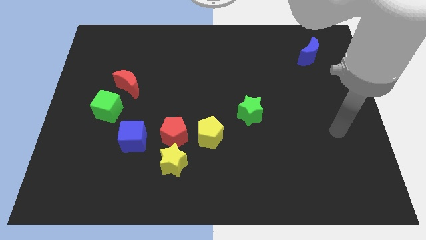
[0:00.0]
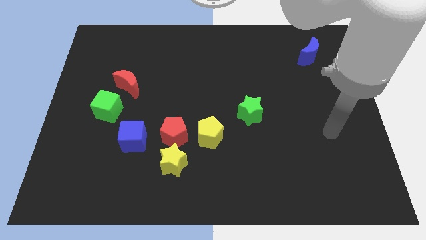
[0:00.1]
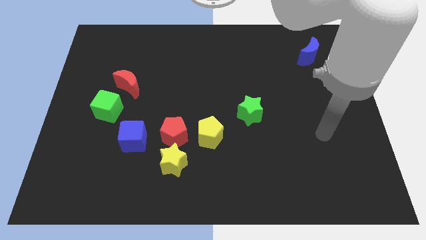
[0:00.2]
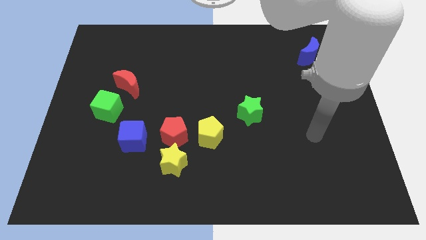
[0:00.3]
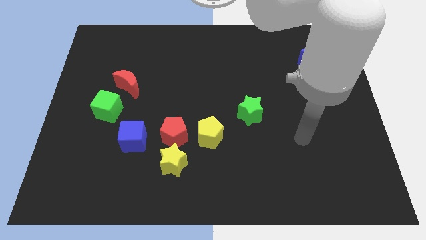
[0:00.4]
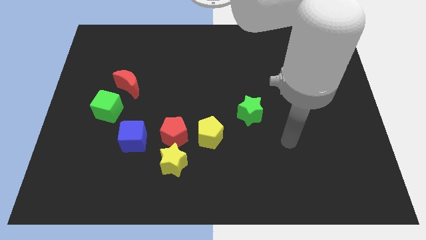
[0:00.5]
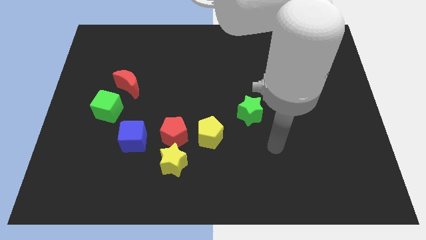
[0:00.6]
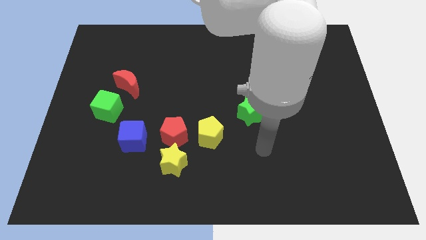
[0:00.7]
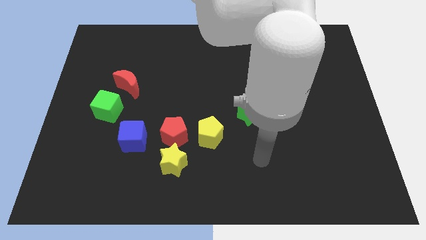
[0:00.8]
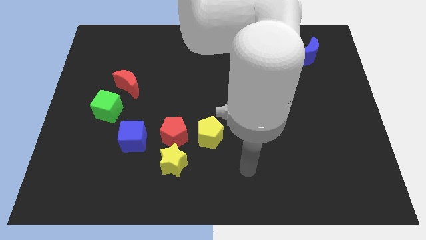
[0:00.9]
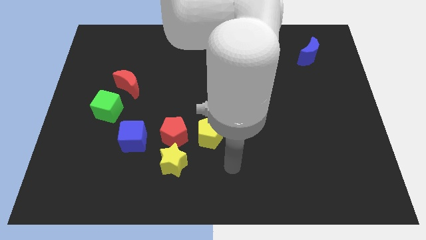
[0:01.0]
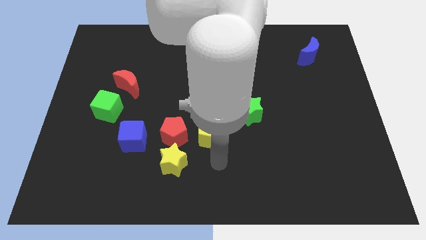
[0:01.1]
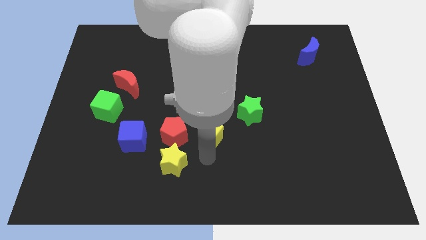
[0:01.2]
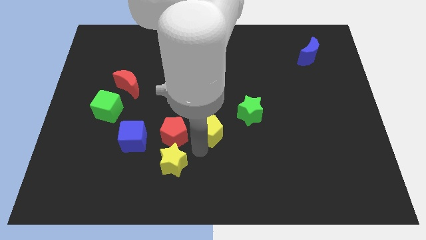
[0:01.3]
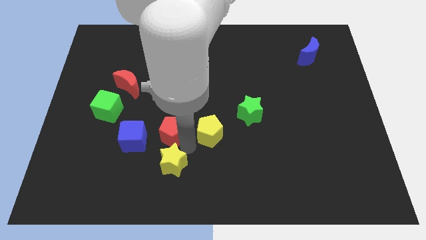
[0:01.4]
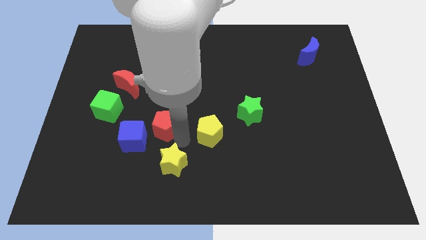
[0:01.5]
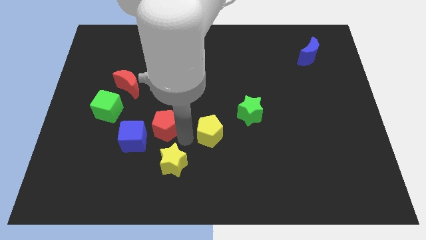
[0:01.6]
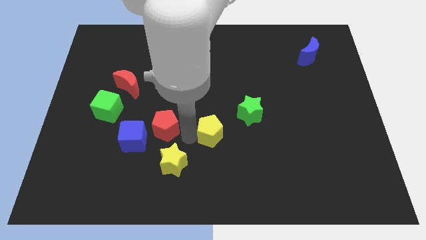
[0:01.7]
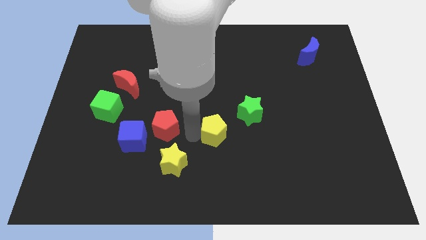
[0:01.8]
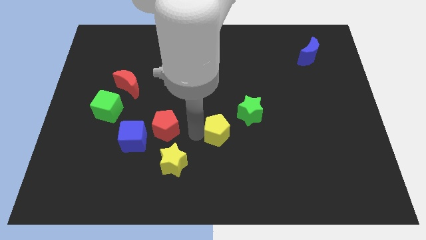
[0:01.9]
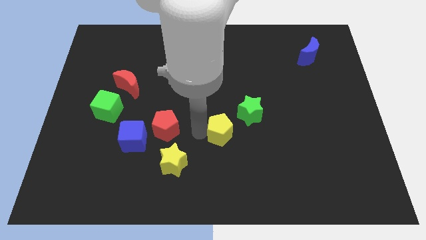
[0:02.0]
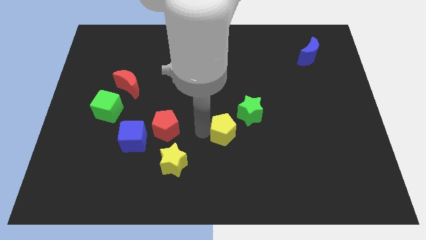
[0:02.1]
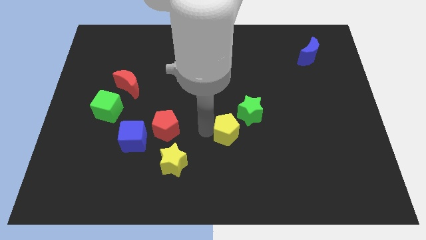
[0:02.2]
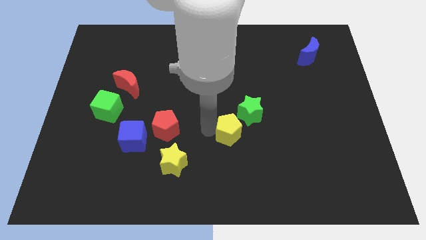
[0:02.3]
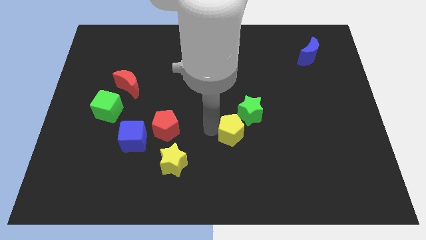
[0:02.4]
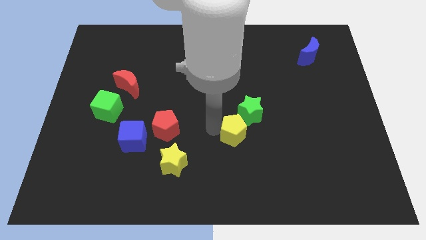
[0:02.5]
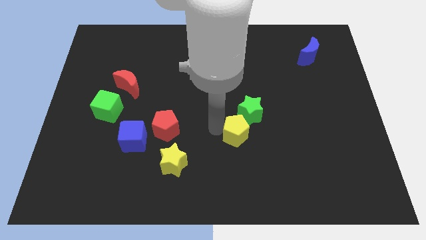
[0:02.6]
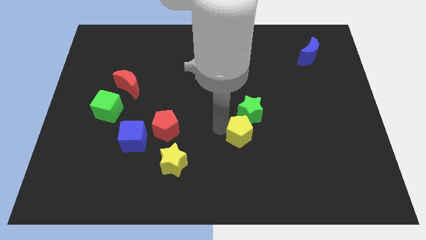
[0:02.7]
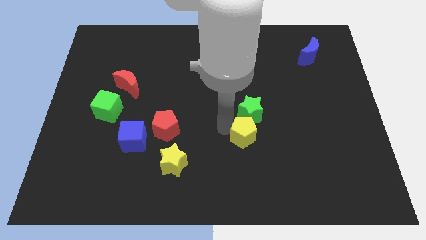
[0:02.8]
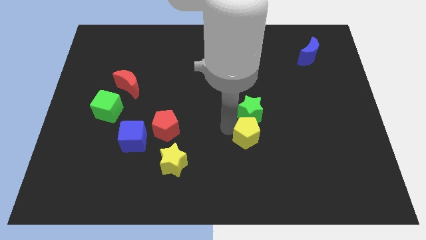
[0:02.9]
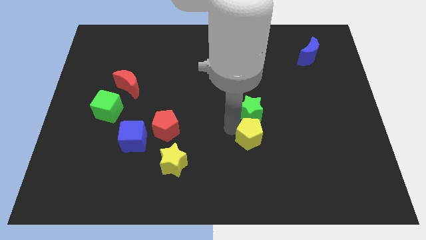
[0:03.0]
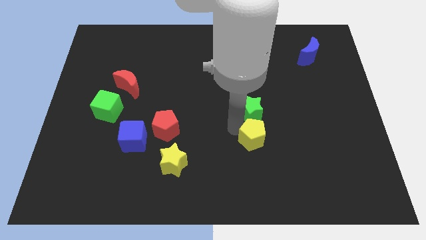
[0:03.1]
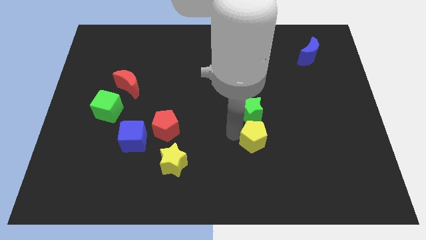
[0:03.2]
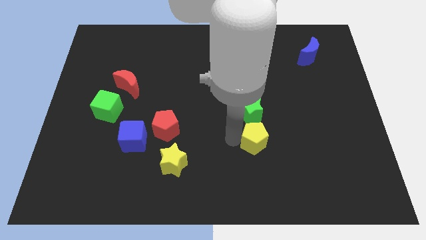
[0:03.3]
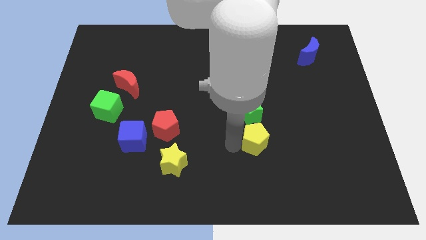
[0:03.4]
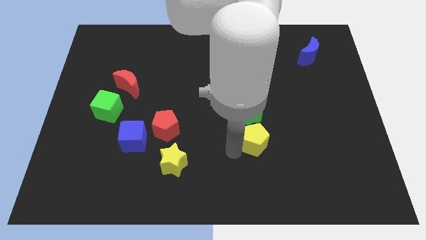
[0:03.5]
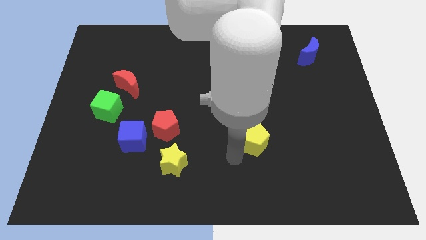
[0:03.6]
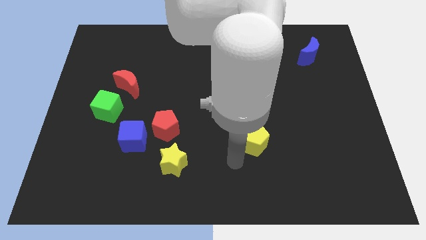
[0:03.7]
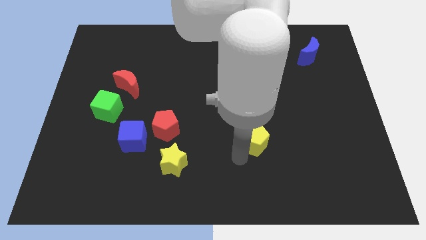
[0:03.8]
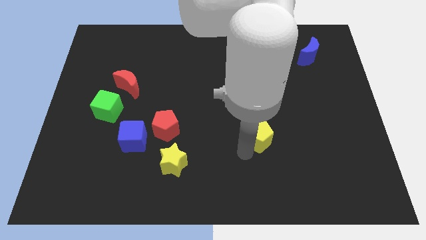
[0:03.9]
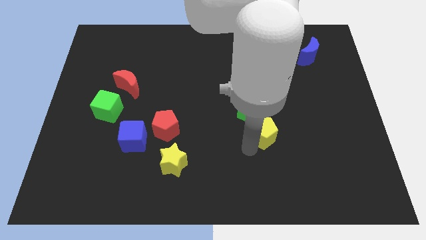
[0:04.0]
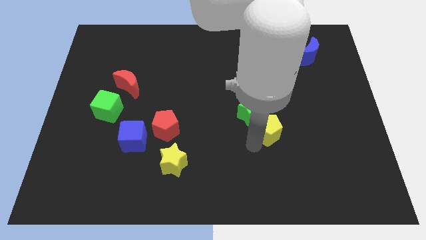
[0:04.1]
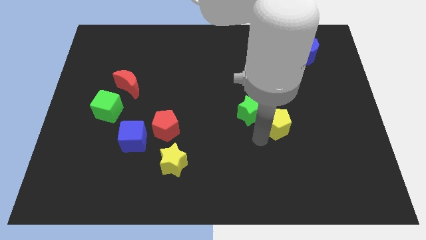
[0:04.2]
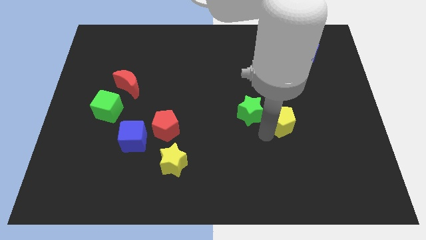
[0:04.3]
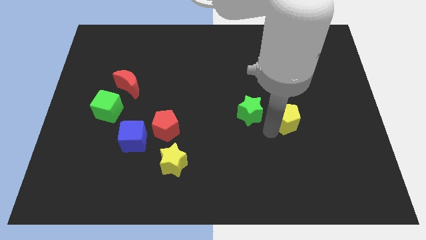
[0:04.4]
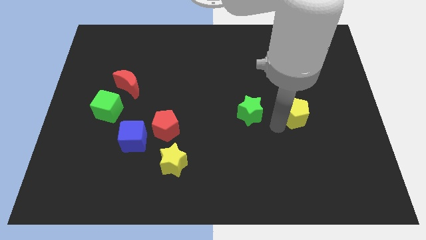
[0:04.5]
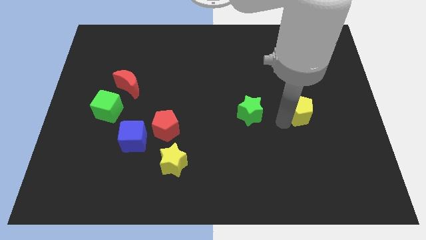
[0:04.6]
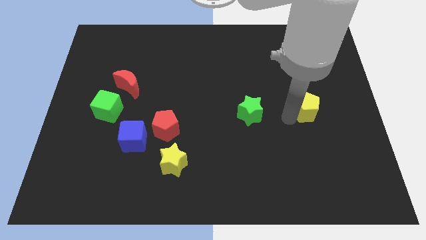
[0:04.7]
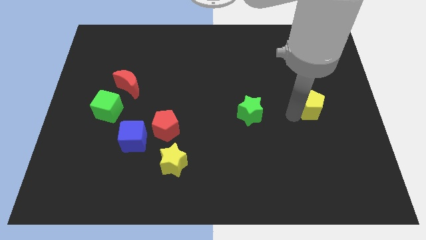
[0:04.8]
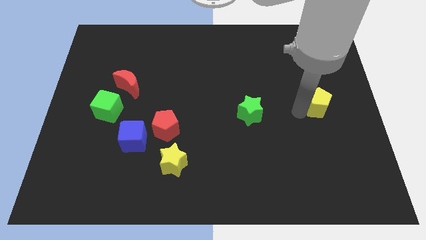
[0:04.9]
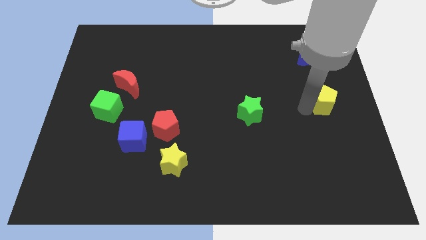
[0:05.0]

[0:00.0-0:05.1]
push the yellow pentagon to the right side of the board

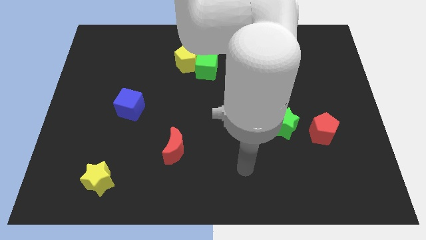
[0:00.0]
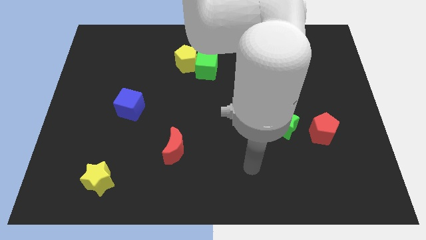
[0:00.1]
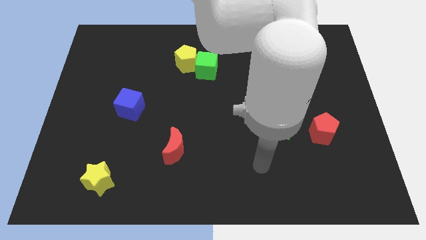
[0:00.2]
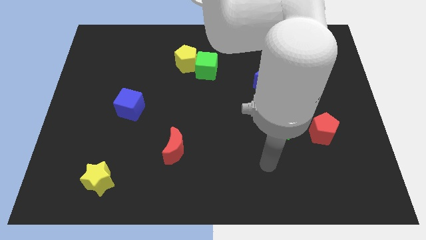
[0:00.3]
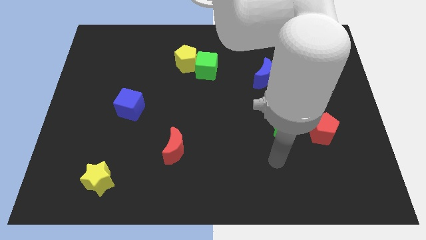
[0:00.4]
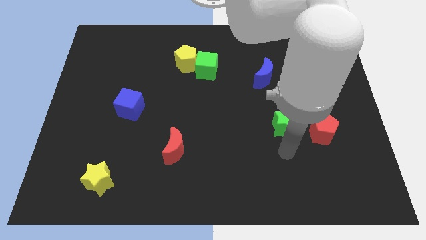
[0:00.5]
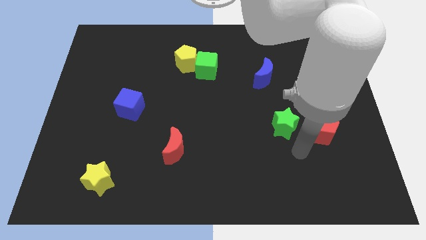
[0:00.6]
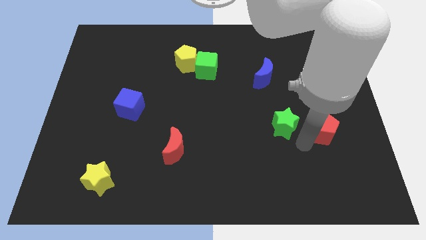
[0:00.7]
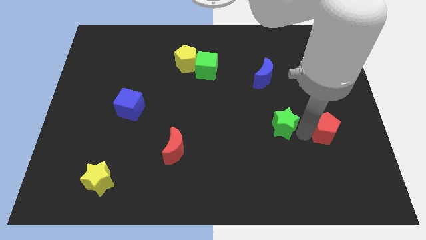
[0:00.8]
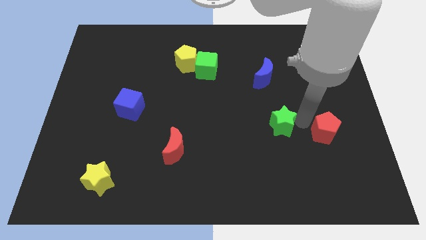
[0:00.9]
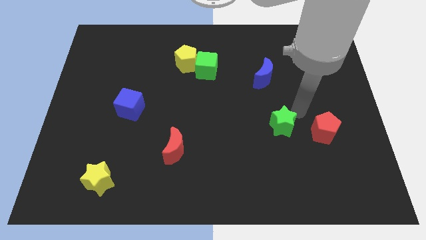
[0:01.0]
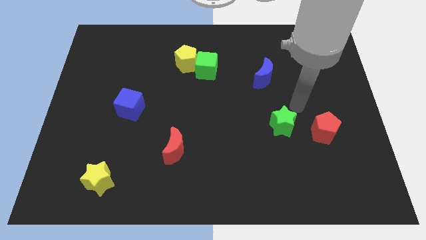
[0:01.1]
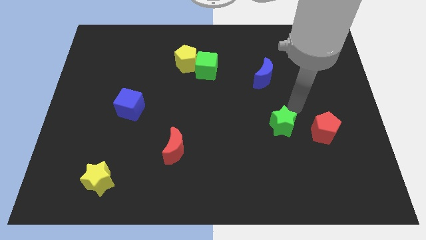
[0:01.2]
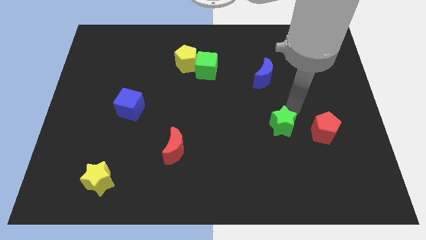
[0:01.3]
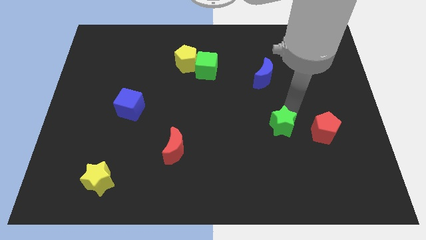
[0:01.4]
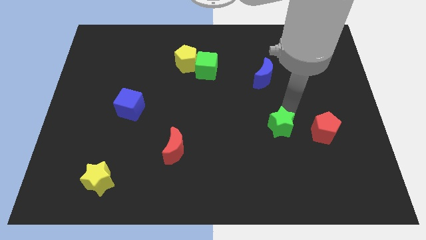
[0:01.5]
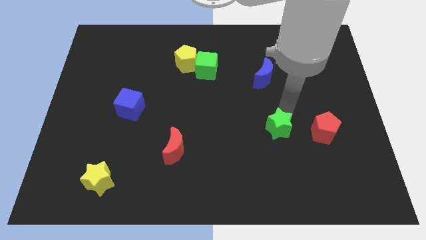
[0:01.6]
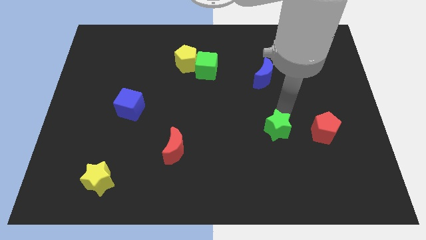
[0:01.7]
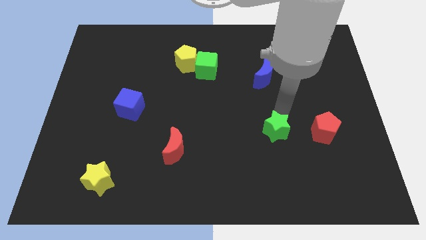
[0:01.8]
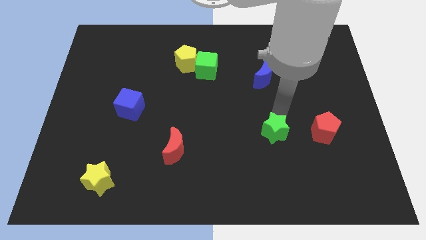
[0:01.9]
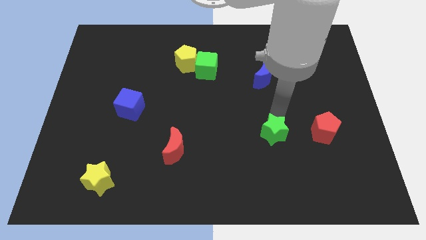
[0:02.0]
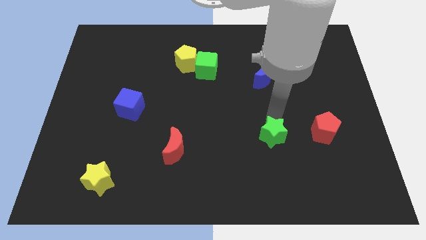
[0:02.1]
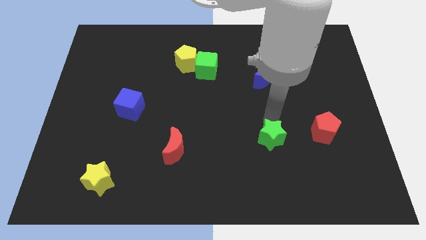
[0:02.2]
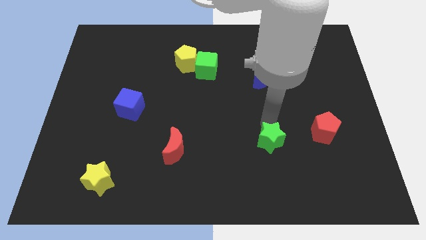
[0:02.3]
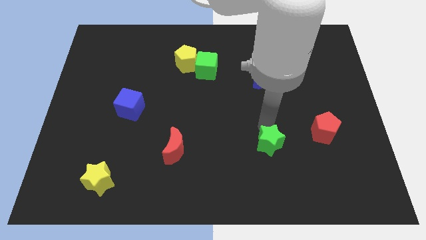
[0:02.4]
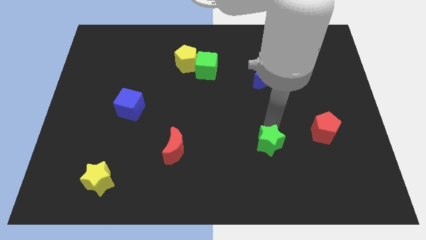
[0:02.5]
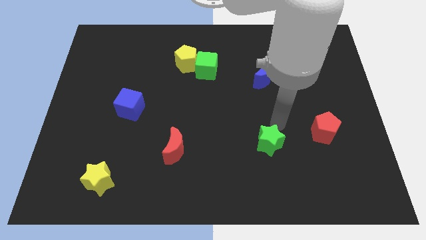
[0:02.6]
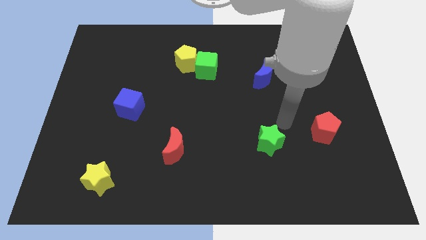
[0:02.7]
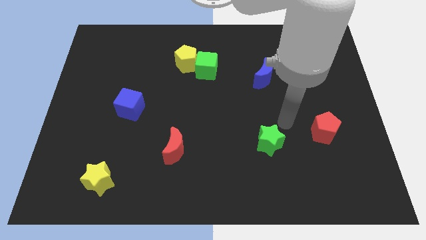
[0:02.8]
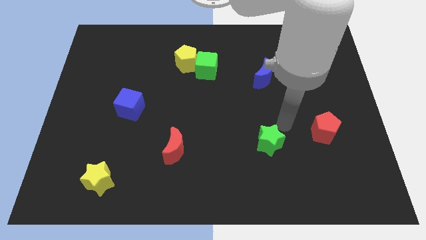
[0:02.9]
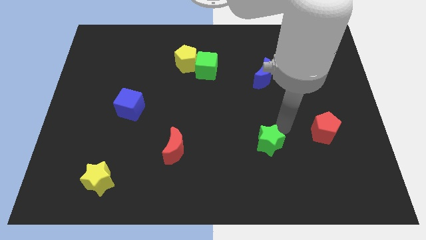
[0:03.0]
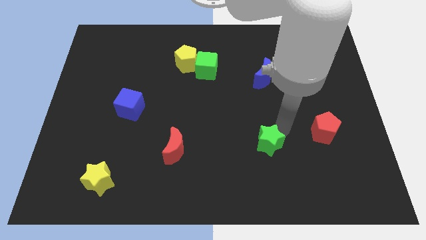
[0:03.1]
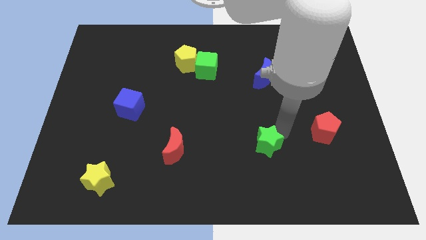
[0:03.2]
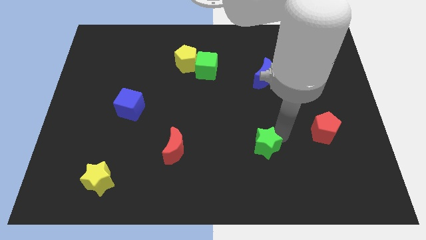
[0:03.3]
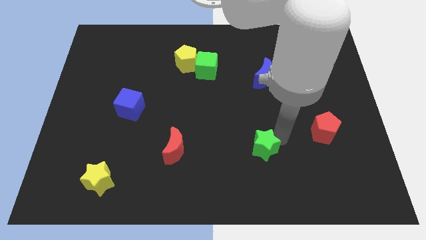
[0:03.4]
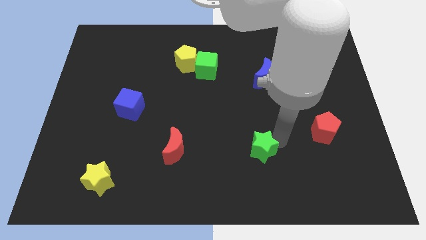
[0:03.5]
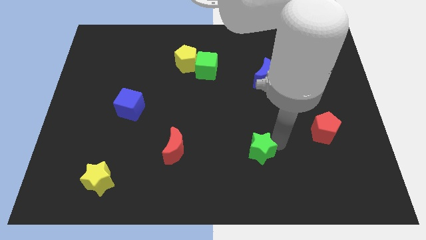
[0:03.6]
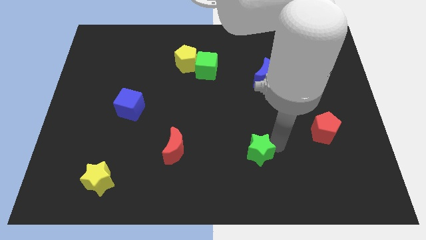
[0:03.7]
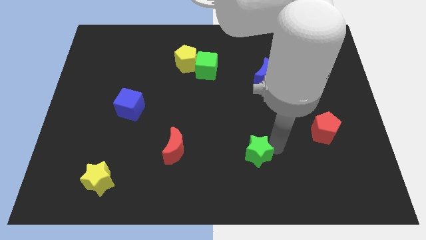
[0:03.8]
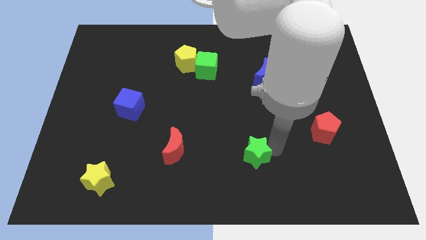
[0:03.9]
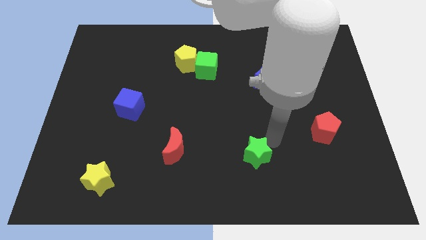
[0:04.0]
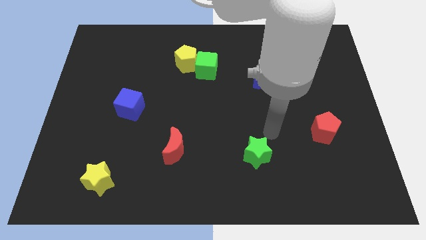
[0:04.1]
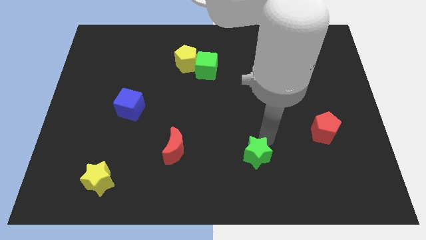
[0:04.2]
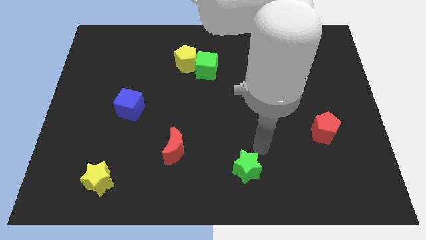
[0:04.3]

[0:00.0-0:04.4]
put the green star to the bottom
